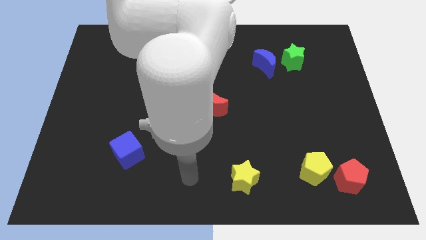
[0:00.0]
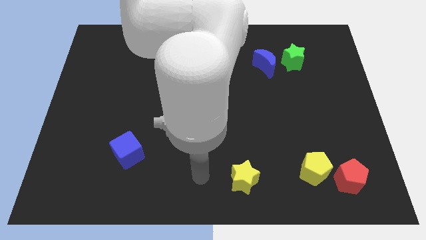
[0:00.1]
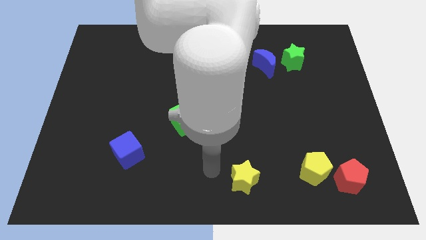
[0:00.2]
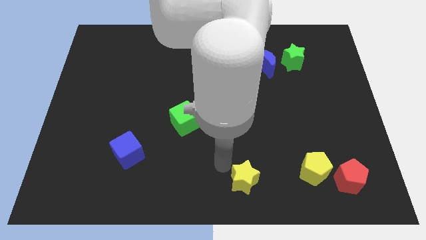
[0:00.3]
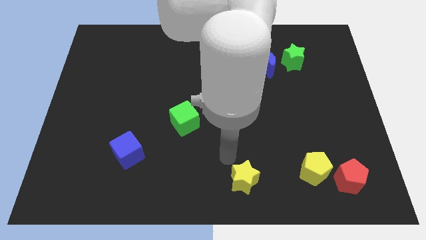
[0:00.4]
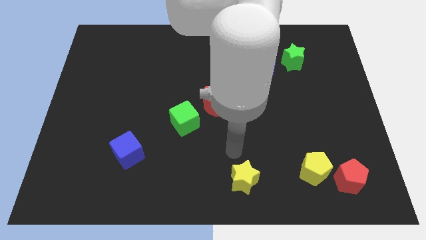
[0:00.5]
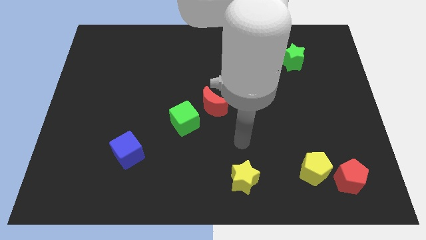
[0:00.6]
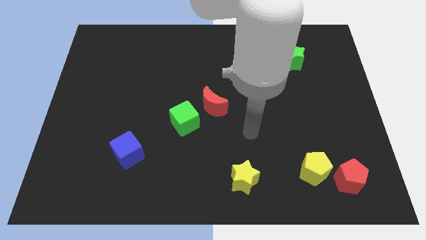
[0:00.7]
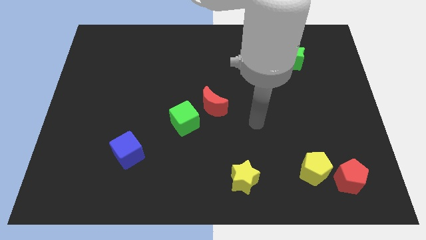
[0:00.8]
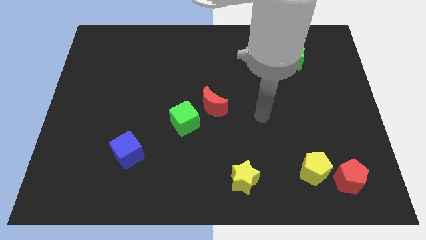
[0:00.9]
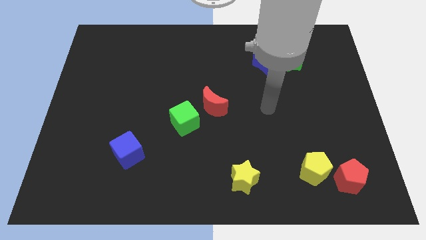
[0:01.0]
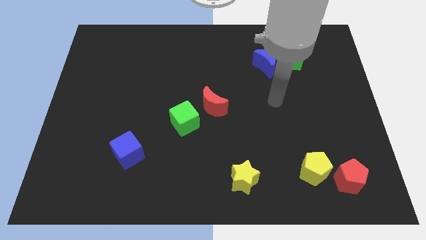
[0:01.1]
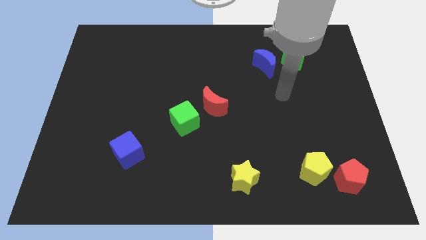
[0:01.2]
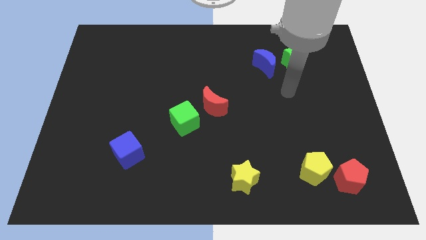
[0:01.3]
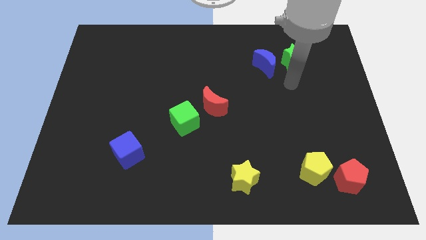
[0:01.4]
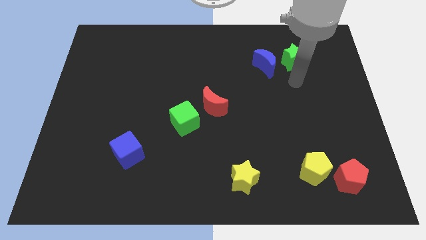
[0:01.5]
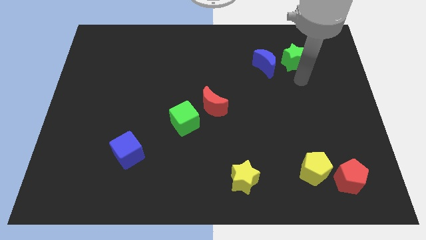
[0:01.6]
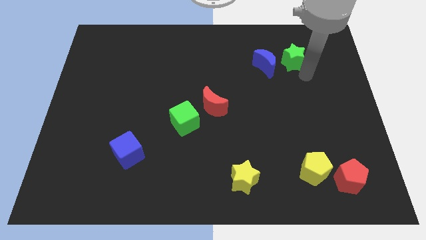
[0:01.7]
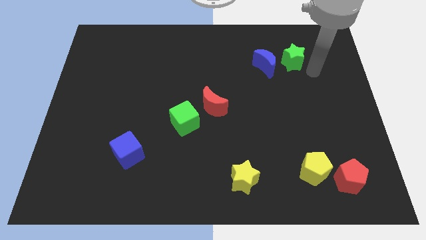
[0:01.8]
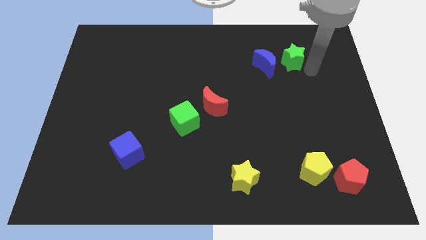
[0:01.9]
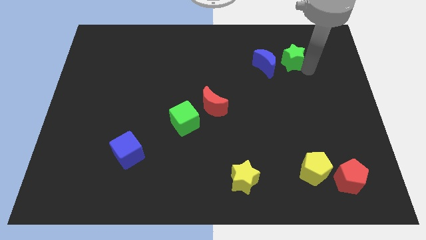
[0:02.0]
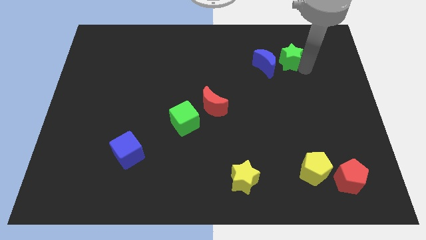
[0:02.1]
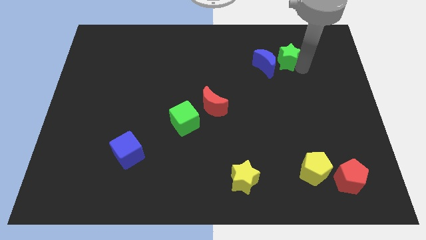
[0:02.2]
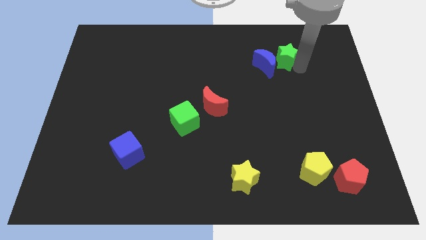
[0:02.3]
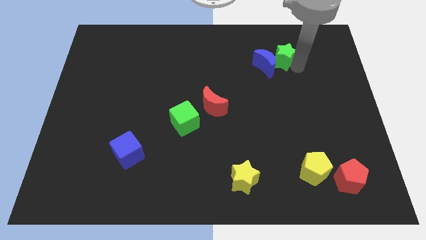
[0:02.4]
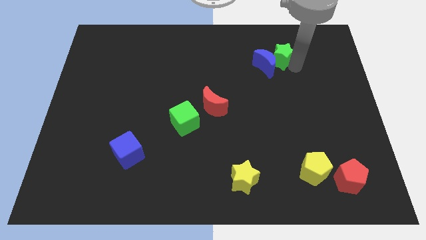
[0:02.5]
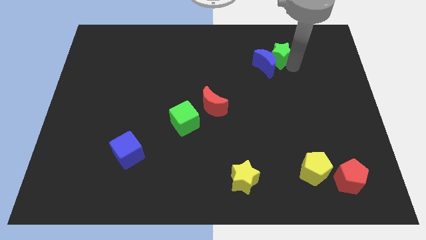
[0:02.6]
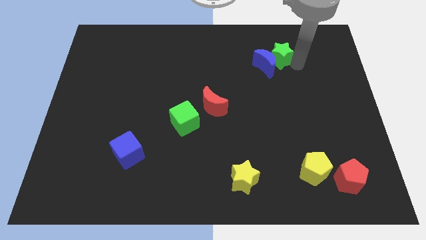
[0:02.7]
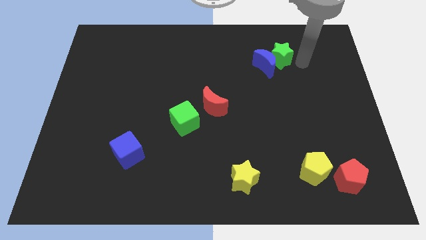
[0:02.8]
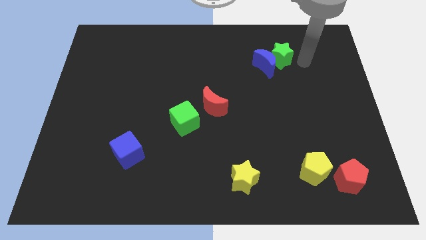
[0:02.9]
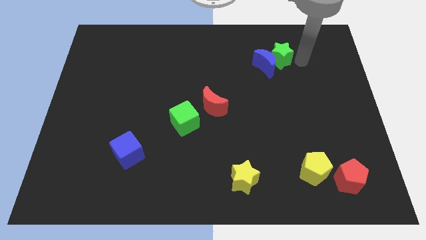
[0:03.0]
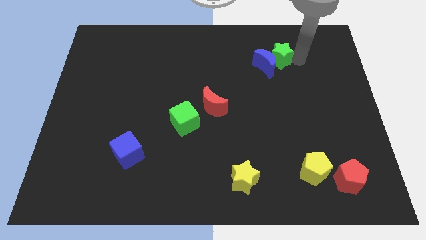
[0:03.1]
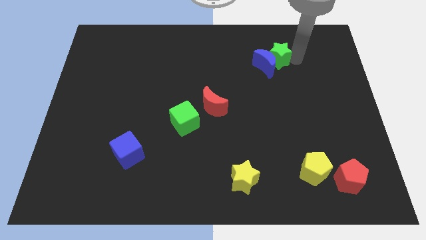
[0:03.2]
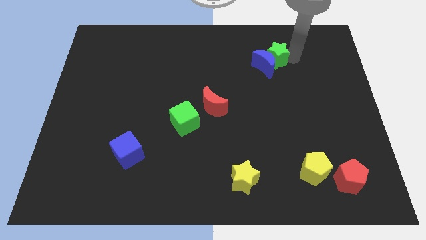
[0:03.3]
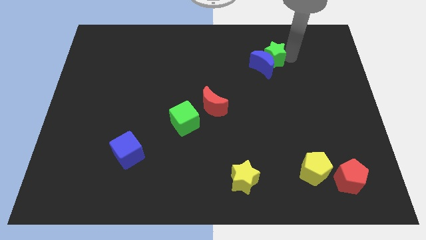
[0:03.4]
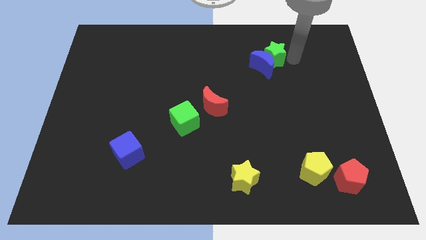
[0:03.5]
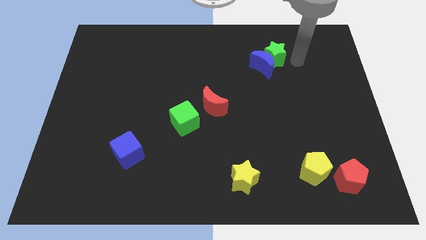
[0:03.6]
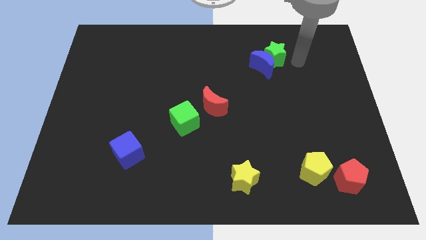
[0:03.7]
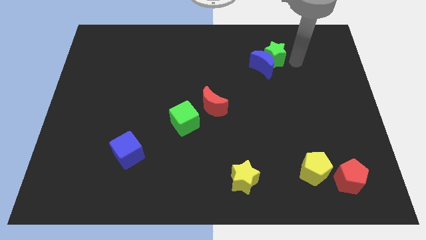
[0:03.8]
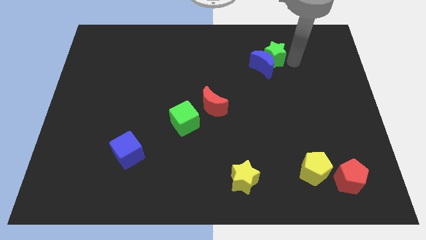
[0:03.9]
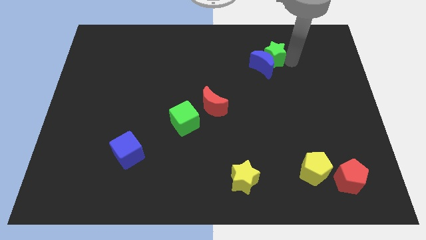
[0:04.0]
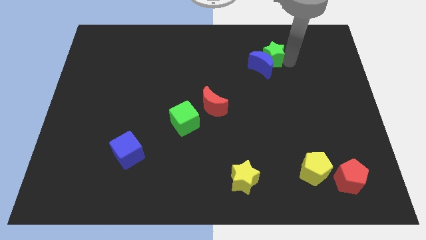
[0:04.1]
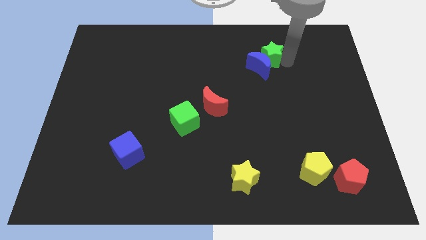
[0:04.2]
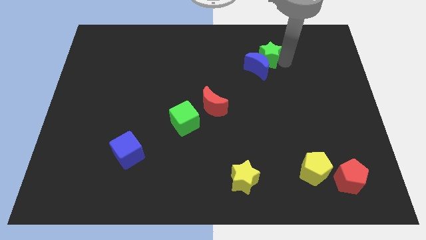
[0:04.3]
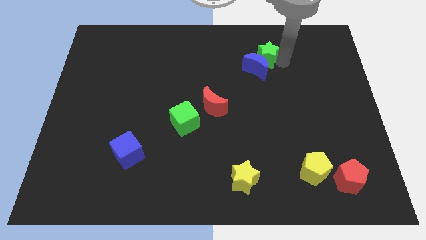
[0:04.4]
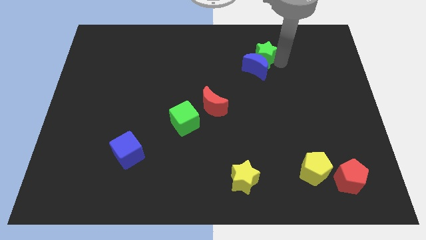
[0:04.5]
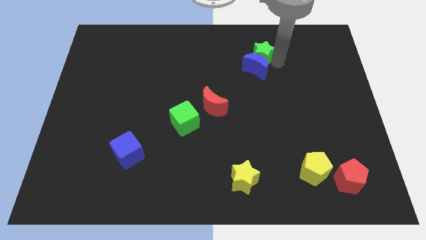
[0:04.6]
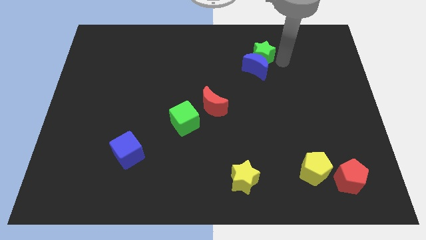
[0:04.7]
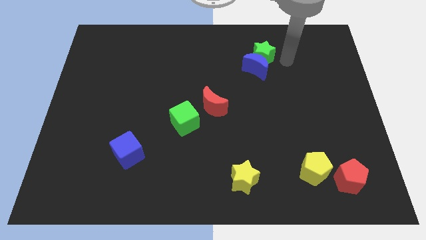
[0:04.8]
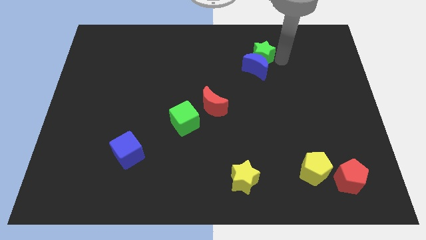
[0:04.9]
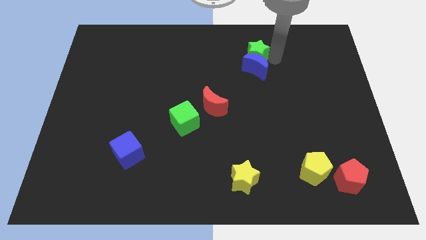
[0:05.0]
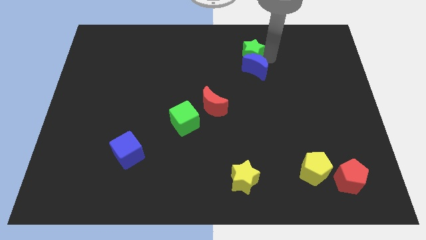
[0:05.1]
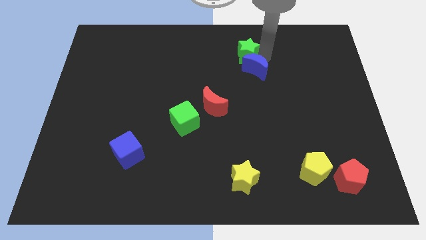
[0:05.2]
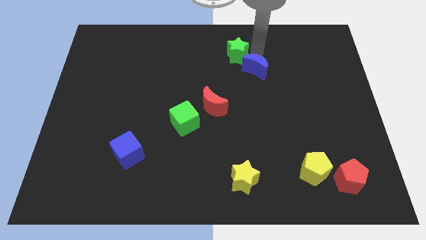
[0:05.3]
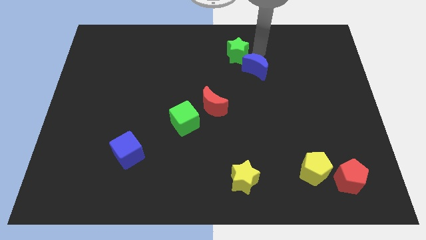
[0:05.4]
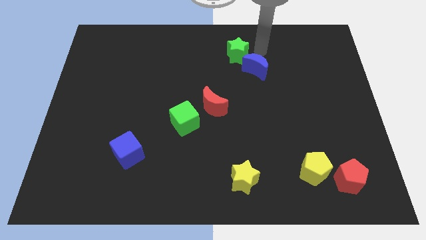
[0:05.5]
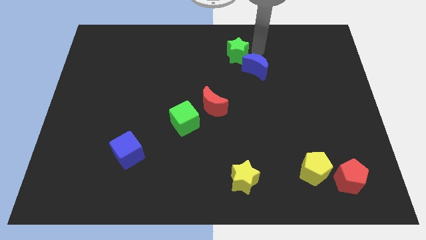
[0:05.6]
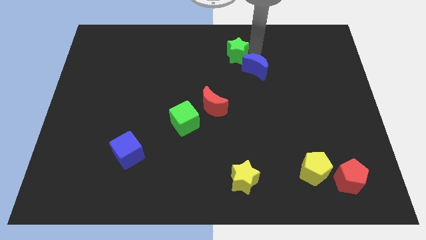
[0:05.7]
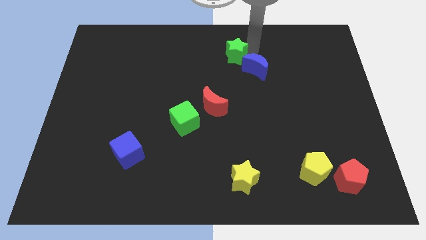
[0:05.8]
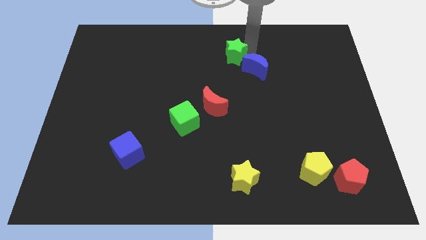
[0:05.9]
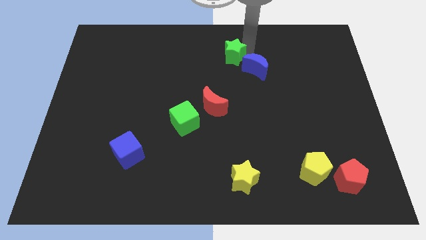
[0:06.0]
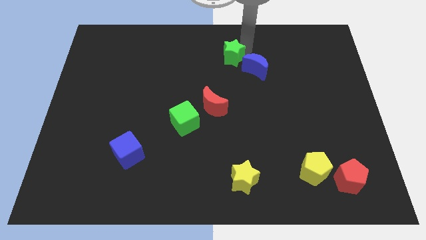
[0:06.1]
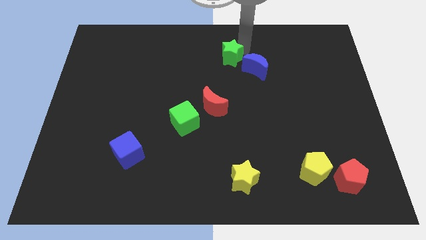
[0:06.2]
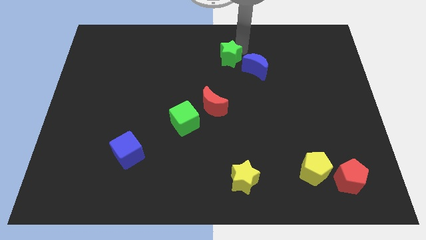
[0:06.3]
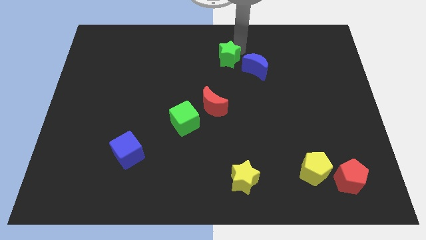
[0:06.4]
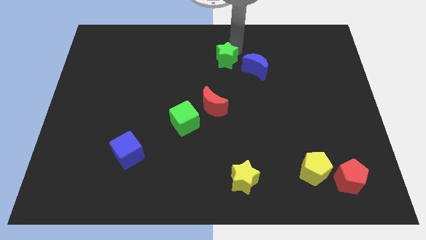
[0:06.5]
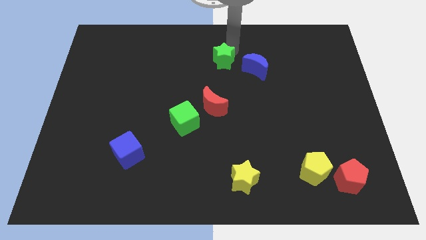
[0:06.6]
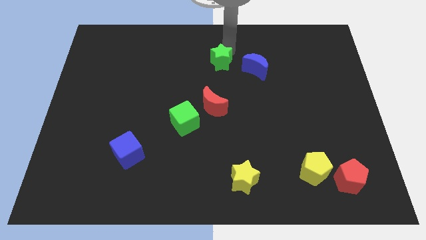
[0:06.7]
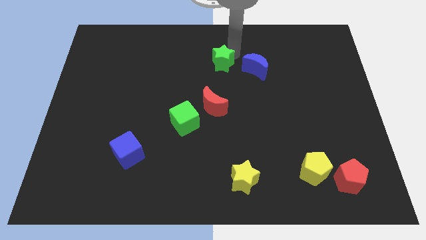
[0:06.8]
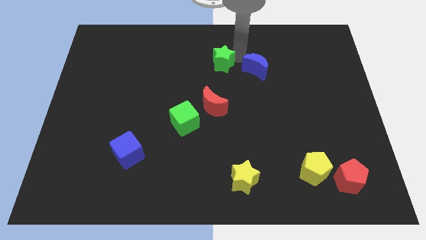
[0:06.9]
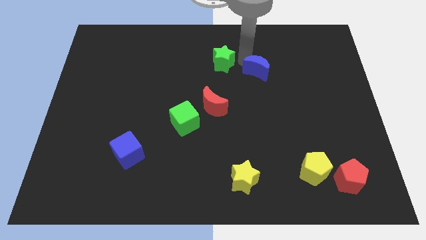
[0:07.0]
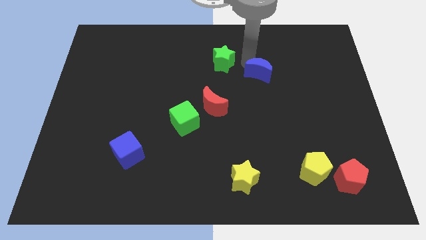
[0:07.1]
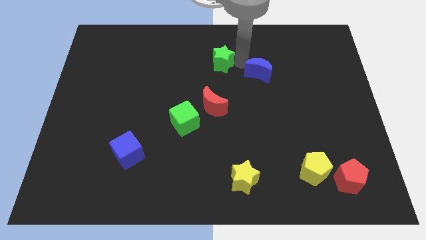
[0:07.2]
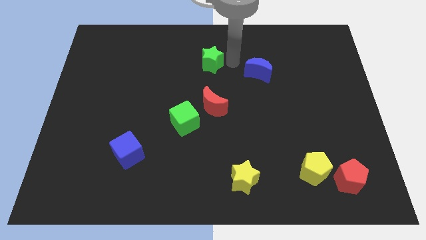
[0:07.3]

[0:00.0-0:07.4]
slide the green star to the left

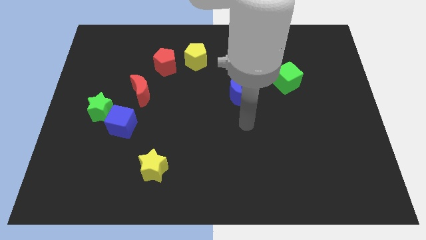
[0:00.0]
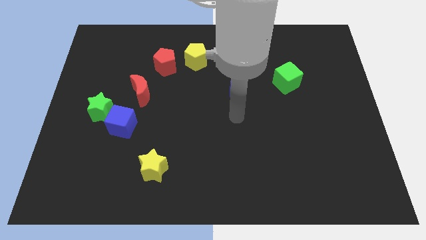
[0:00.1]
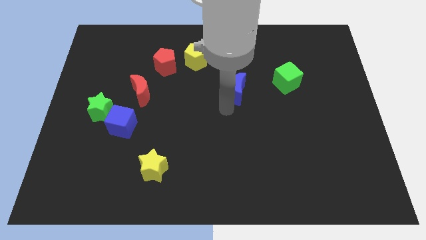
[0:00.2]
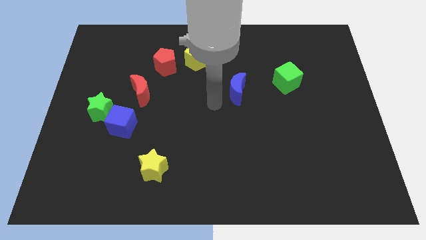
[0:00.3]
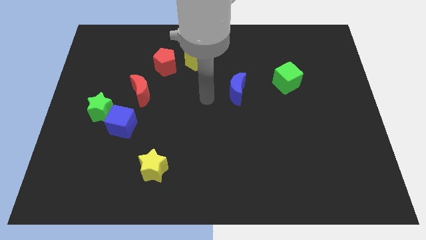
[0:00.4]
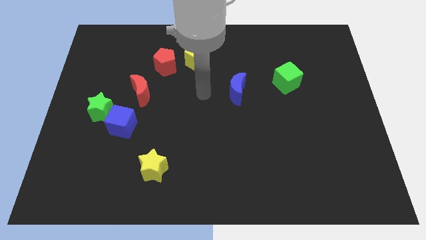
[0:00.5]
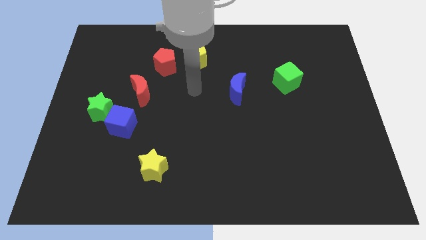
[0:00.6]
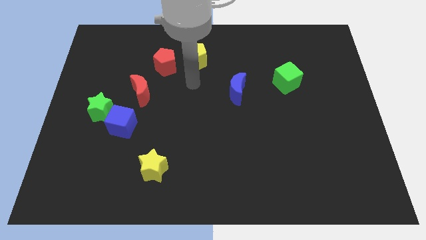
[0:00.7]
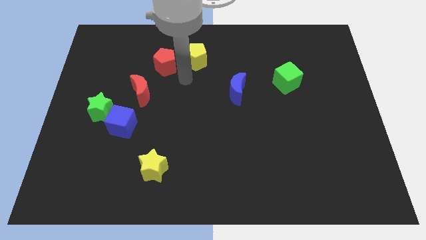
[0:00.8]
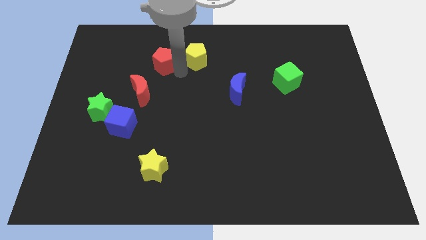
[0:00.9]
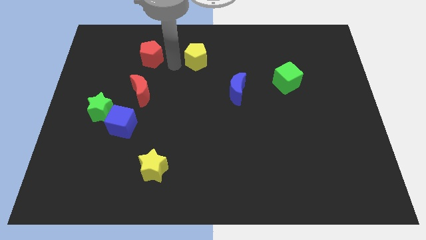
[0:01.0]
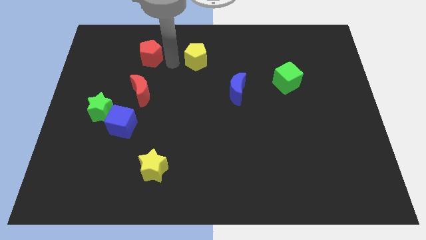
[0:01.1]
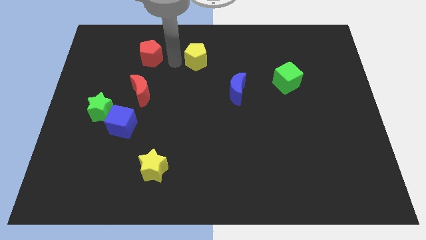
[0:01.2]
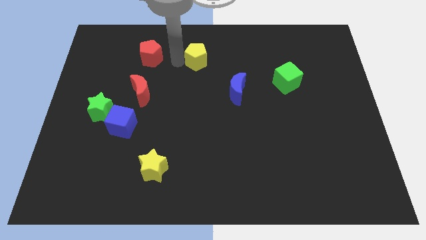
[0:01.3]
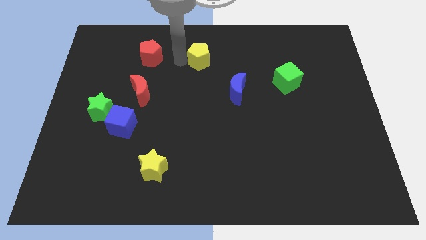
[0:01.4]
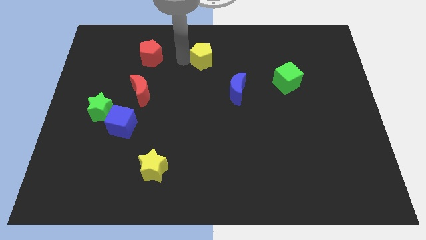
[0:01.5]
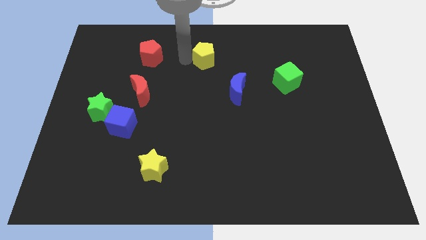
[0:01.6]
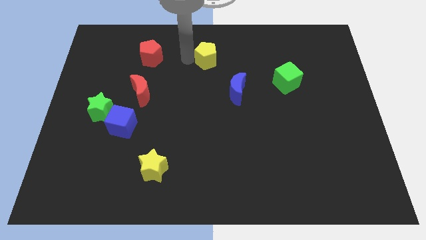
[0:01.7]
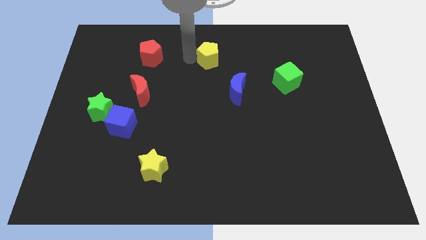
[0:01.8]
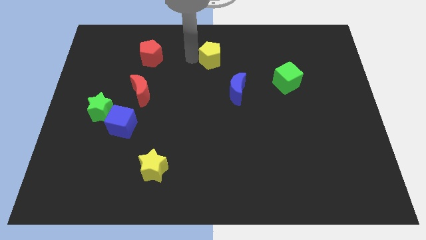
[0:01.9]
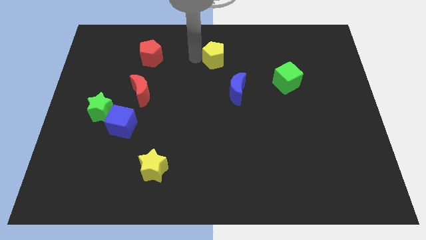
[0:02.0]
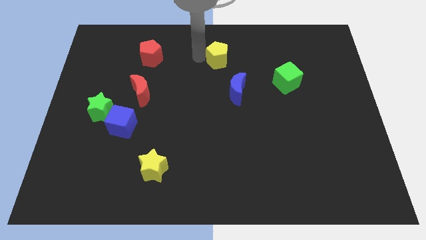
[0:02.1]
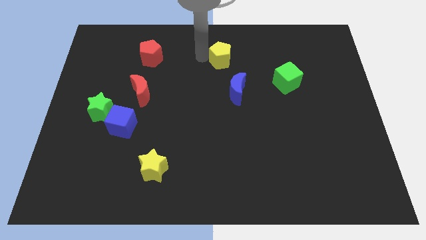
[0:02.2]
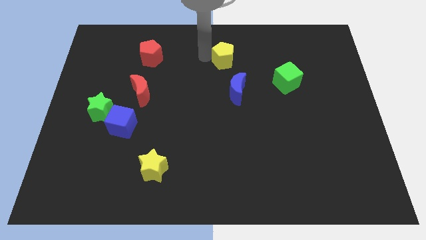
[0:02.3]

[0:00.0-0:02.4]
move the yellow pentagon a little bit to the right
